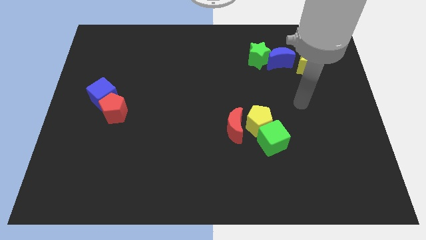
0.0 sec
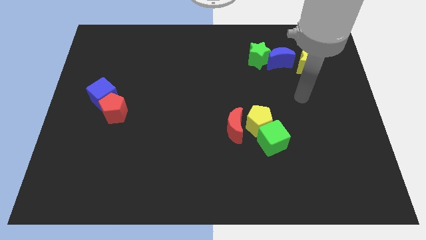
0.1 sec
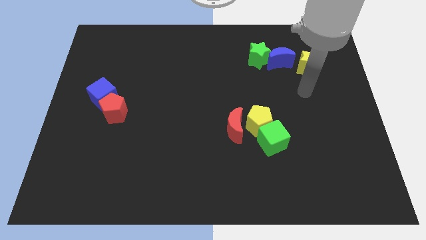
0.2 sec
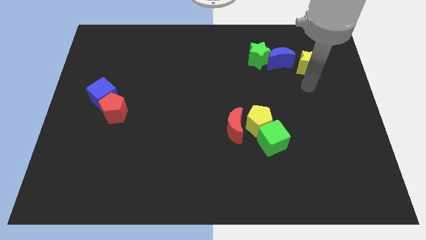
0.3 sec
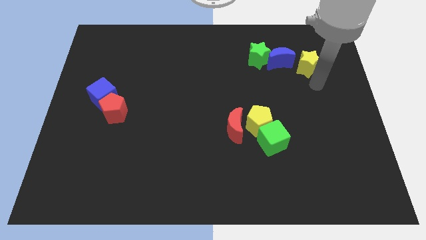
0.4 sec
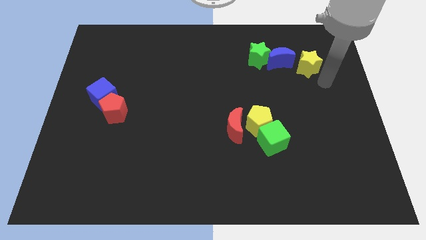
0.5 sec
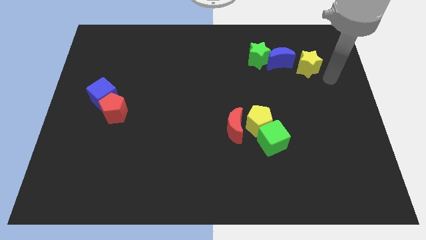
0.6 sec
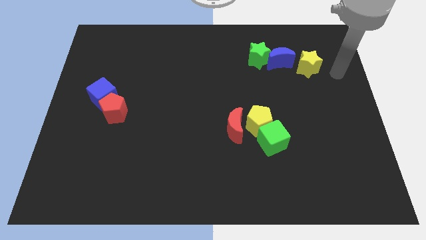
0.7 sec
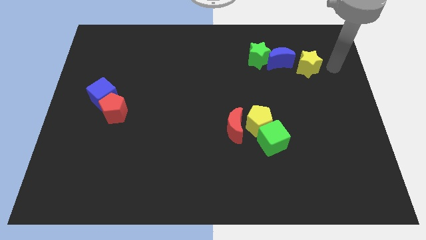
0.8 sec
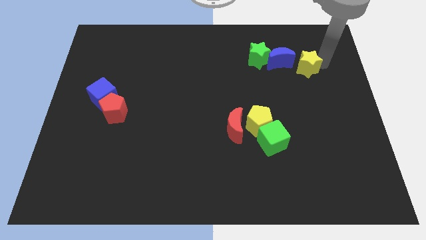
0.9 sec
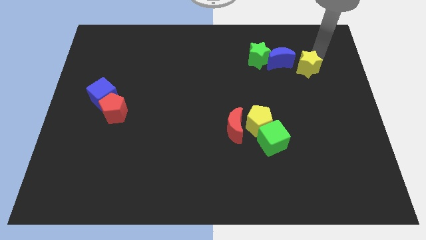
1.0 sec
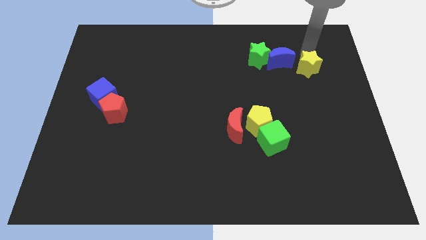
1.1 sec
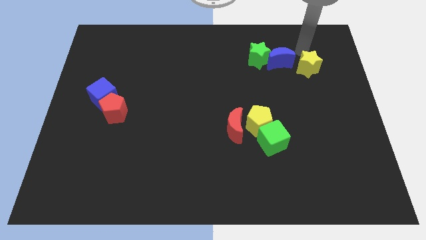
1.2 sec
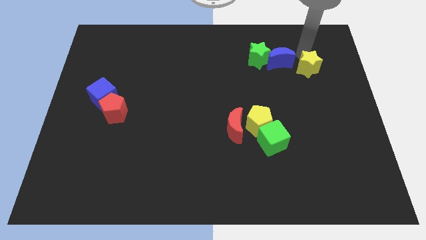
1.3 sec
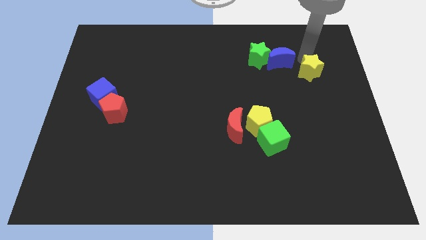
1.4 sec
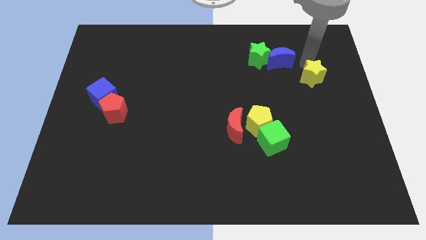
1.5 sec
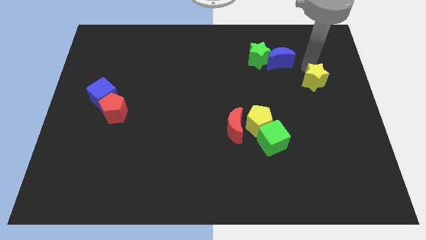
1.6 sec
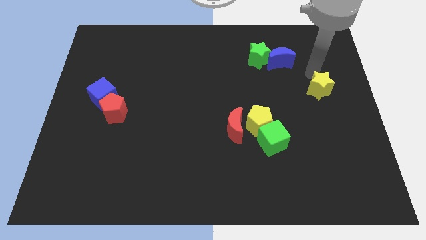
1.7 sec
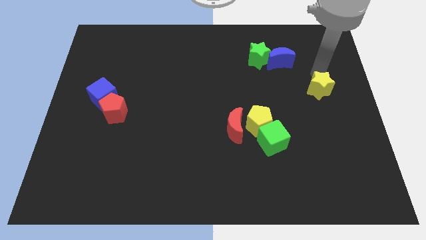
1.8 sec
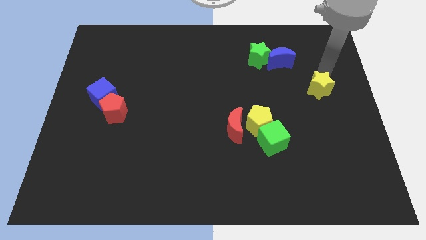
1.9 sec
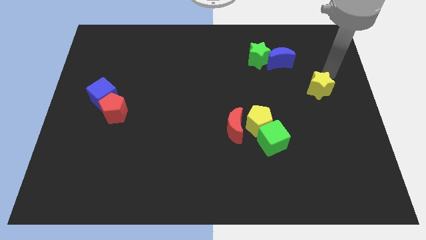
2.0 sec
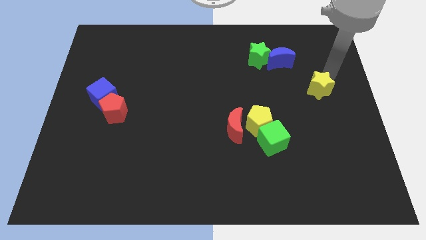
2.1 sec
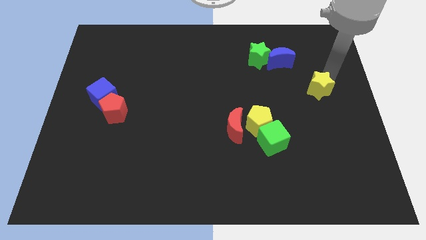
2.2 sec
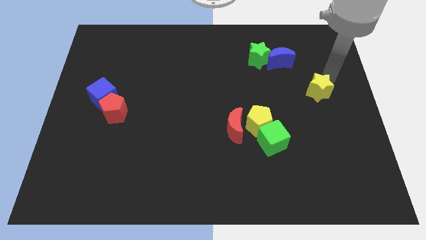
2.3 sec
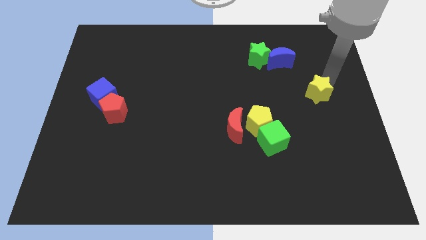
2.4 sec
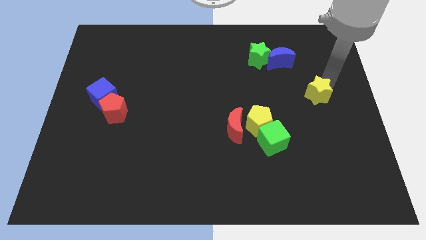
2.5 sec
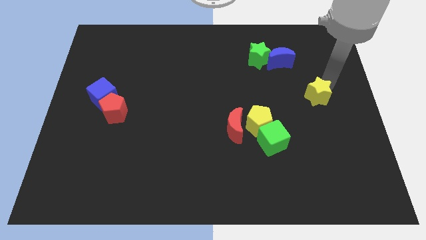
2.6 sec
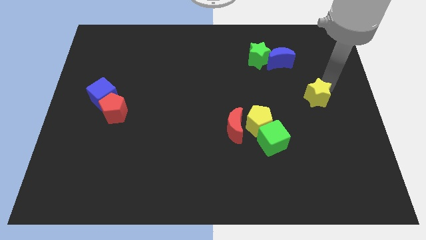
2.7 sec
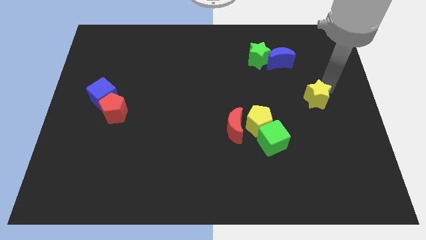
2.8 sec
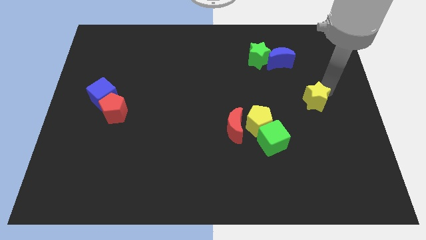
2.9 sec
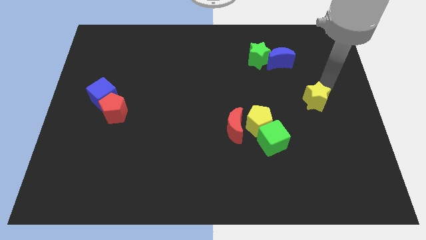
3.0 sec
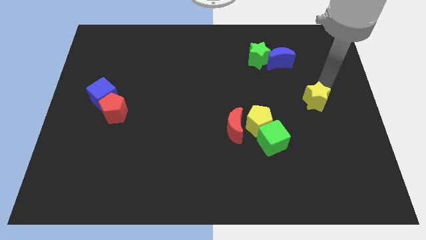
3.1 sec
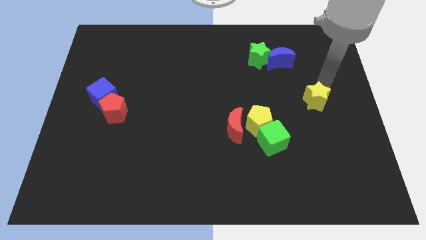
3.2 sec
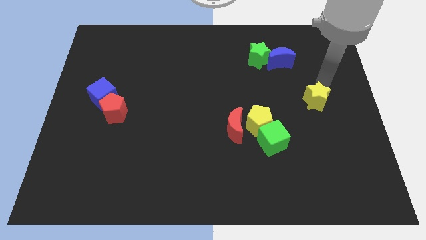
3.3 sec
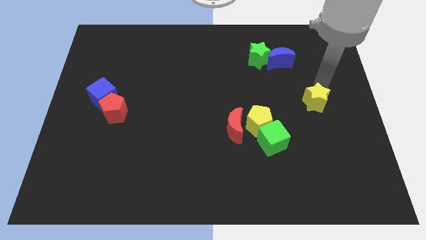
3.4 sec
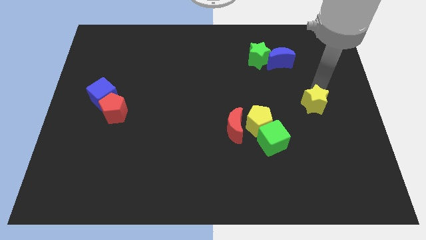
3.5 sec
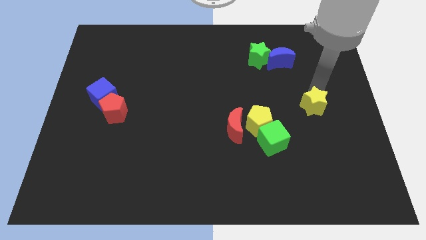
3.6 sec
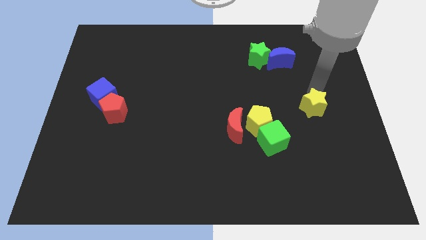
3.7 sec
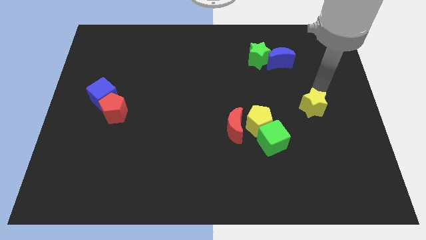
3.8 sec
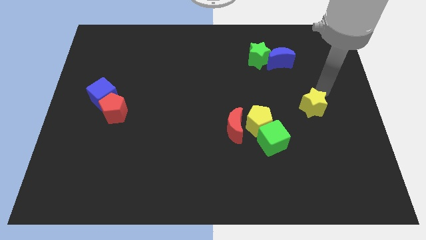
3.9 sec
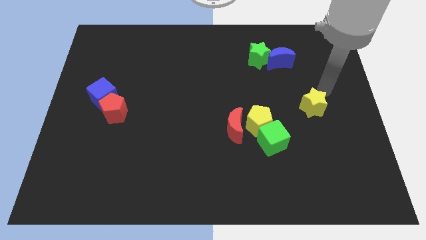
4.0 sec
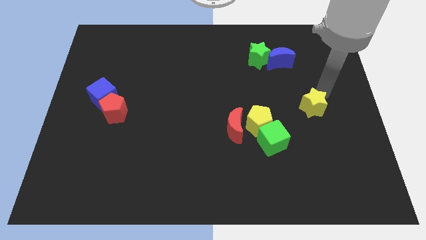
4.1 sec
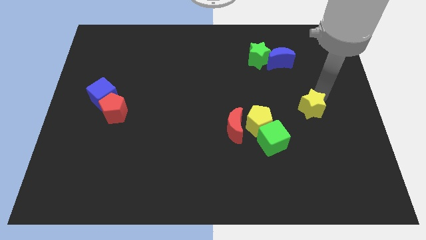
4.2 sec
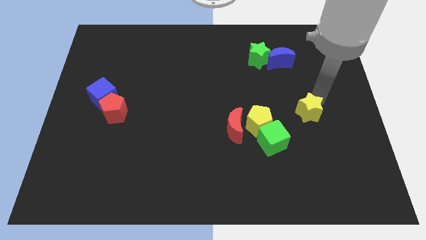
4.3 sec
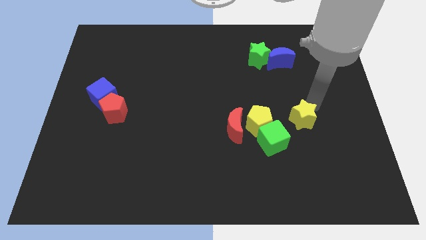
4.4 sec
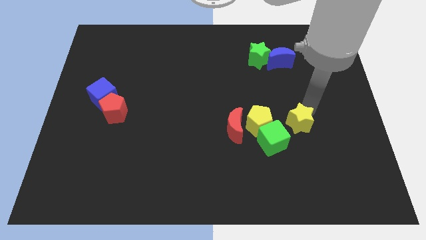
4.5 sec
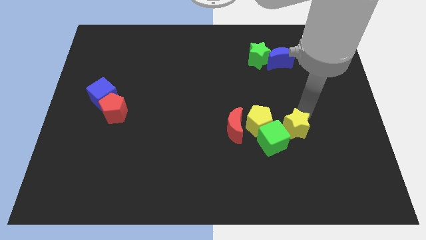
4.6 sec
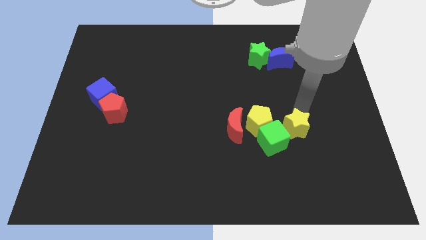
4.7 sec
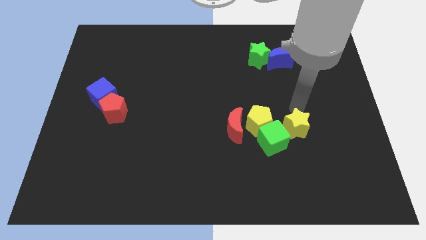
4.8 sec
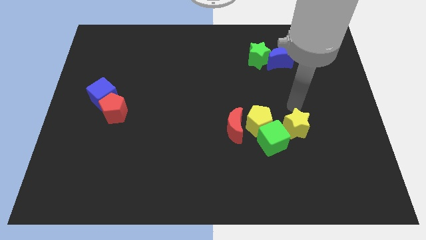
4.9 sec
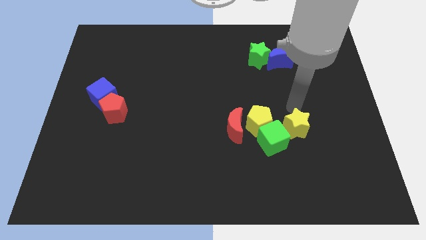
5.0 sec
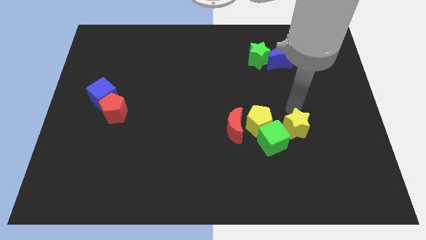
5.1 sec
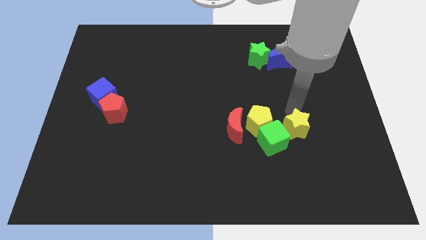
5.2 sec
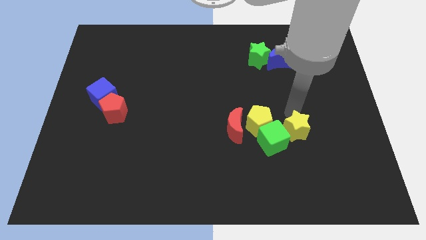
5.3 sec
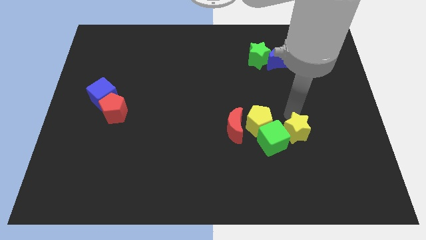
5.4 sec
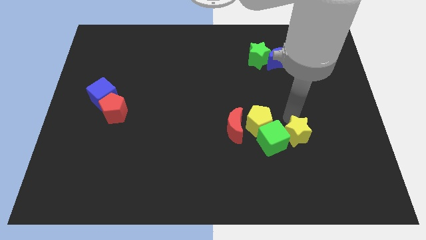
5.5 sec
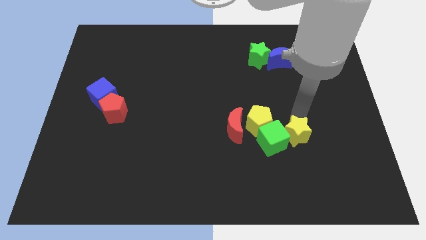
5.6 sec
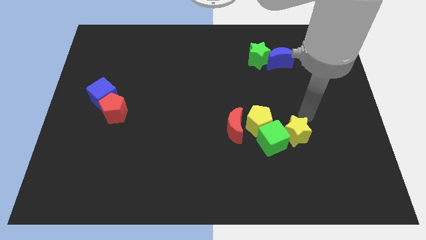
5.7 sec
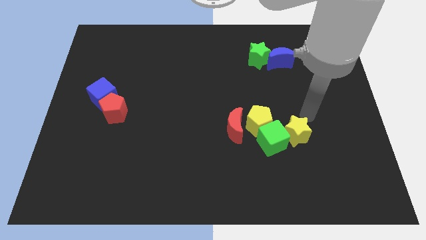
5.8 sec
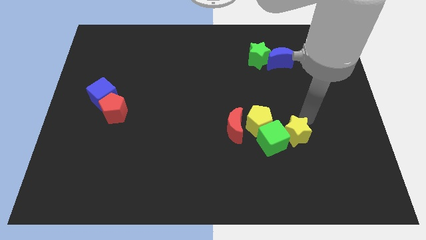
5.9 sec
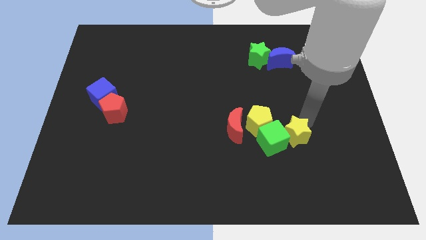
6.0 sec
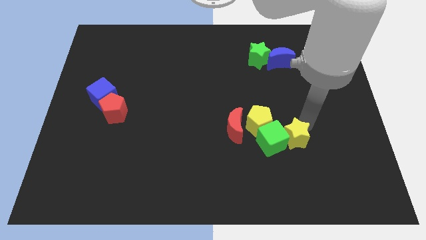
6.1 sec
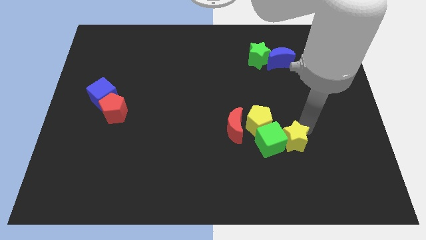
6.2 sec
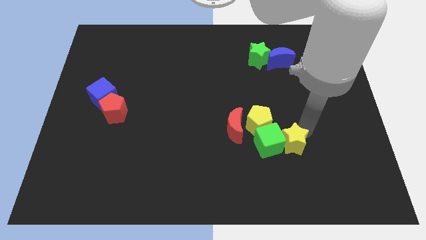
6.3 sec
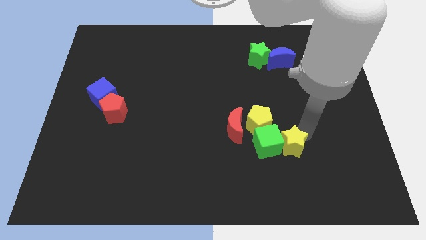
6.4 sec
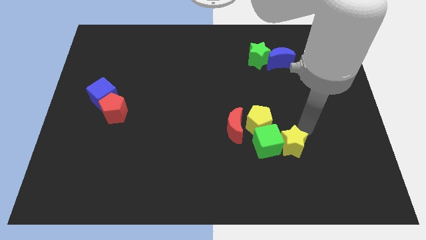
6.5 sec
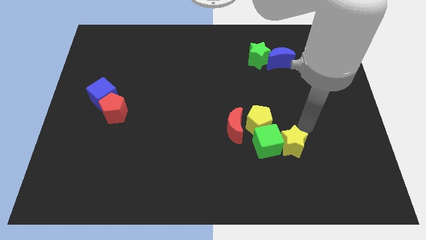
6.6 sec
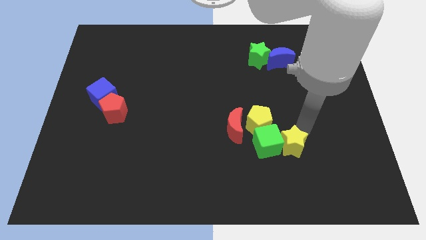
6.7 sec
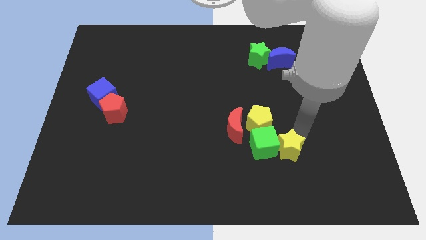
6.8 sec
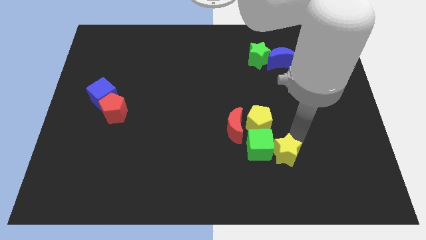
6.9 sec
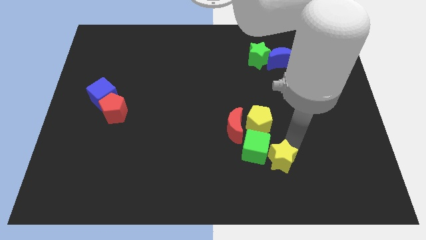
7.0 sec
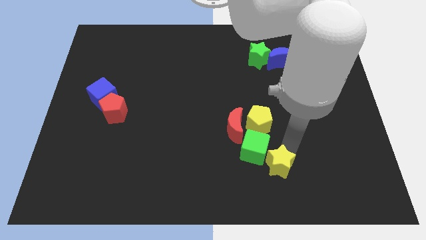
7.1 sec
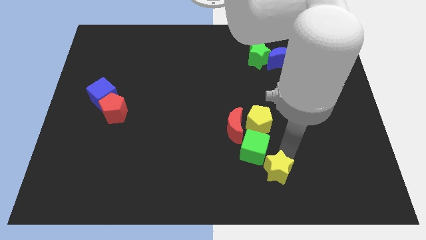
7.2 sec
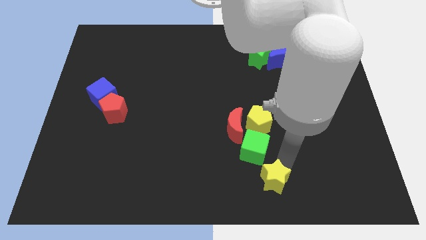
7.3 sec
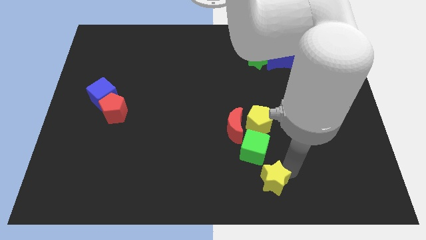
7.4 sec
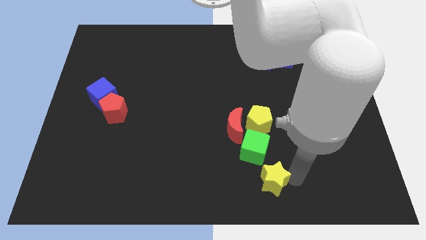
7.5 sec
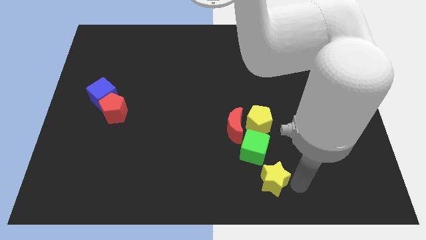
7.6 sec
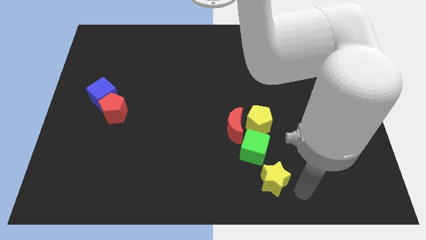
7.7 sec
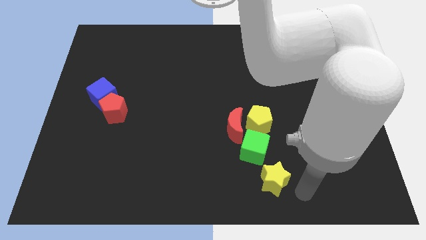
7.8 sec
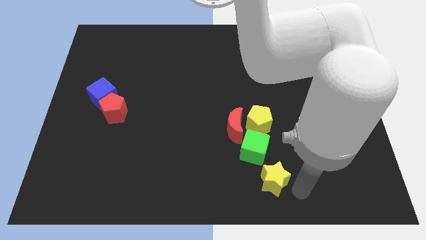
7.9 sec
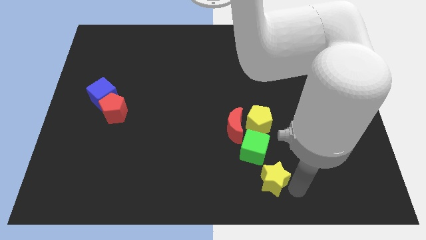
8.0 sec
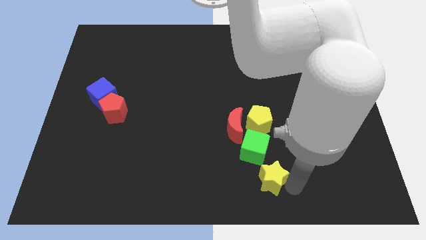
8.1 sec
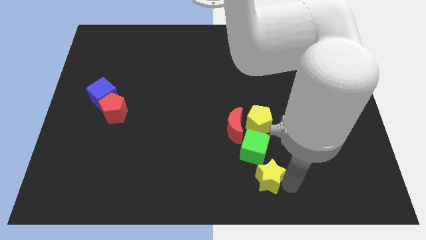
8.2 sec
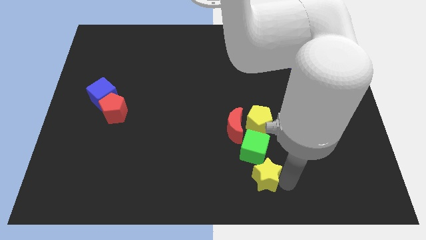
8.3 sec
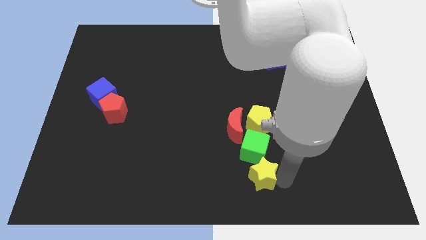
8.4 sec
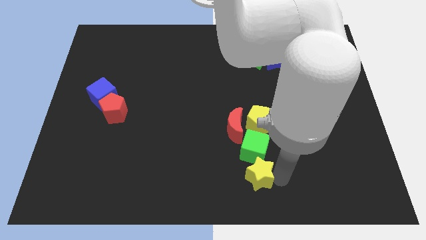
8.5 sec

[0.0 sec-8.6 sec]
put the yellow star to the bottom of the red moon
